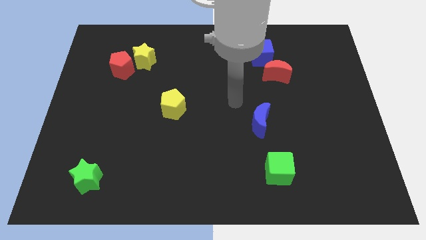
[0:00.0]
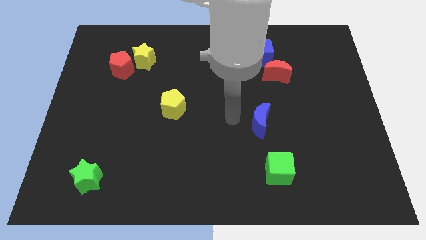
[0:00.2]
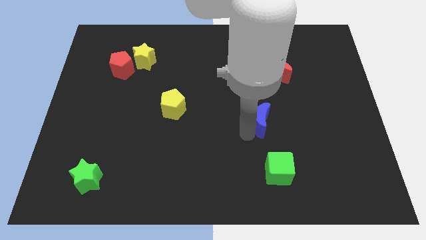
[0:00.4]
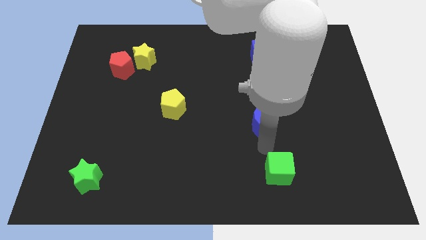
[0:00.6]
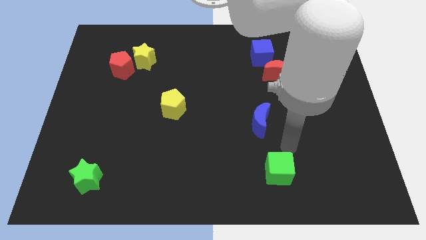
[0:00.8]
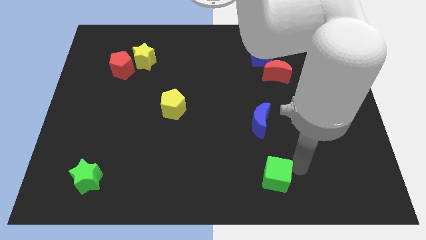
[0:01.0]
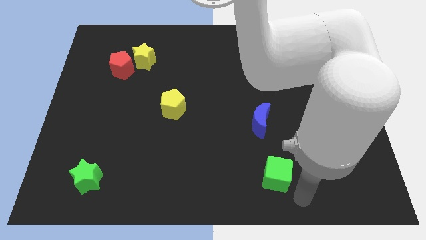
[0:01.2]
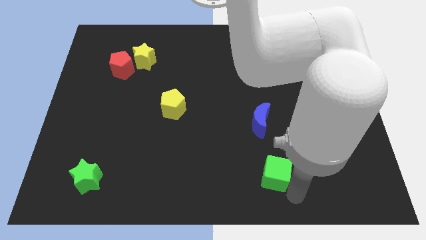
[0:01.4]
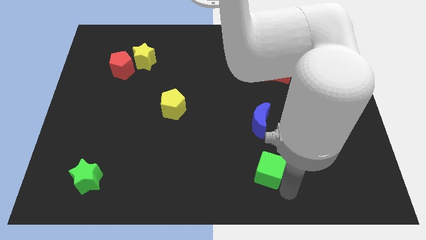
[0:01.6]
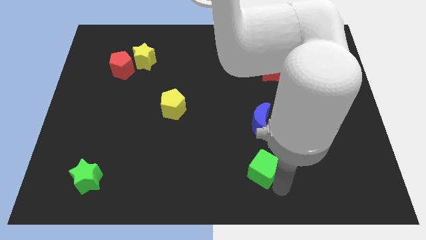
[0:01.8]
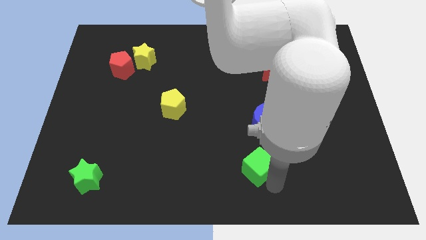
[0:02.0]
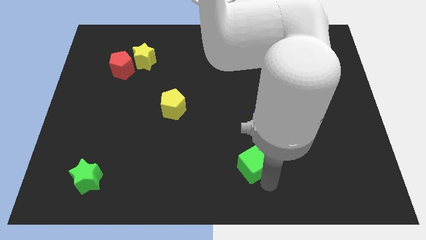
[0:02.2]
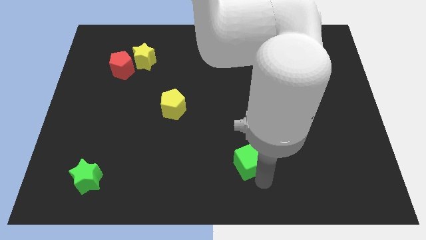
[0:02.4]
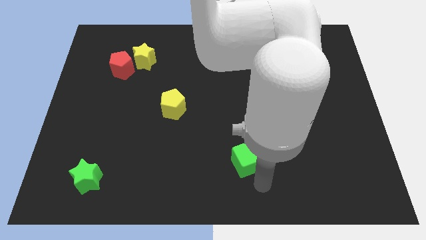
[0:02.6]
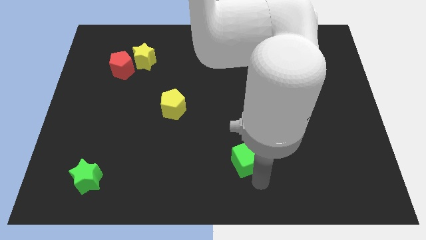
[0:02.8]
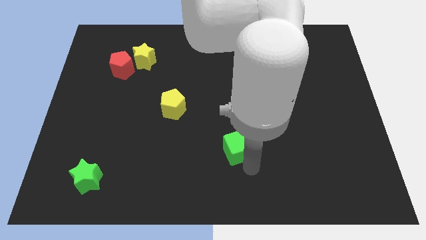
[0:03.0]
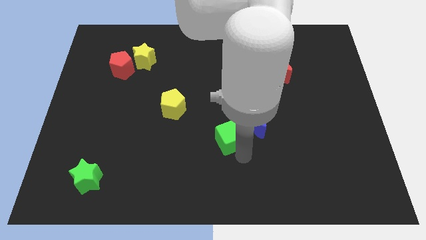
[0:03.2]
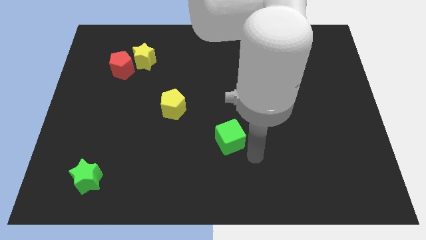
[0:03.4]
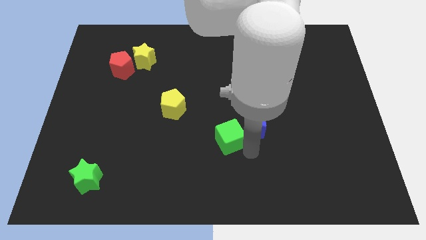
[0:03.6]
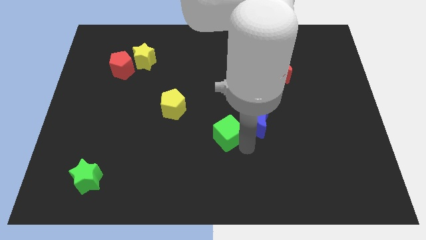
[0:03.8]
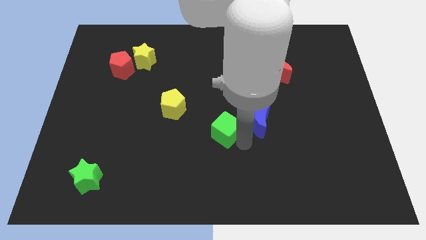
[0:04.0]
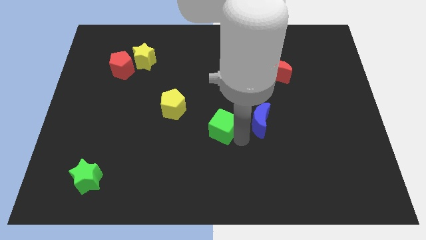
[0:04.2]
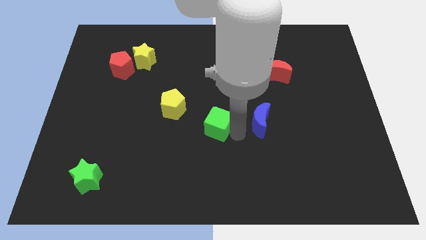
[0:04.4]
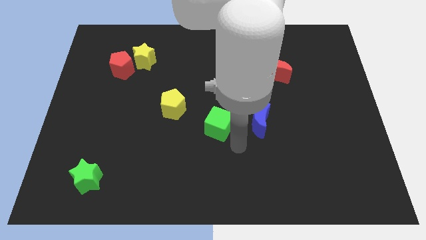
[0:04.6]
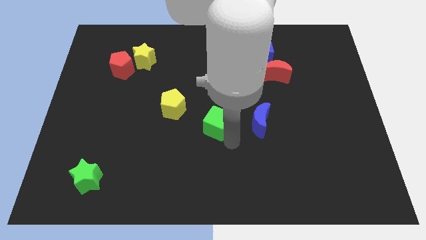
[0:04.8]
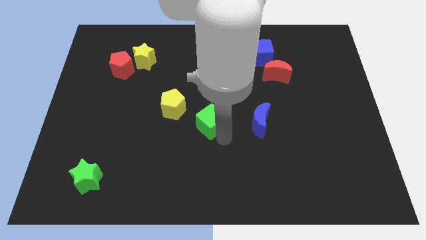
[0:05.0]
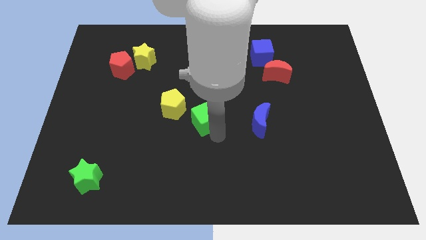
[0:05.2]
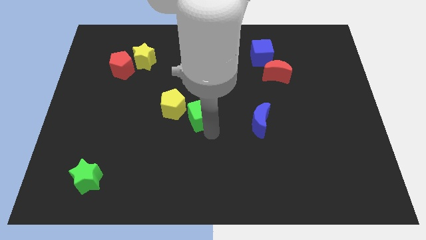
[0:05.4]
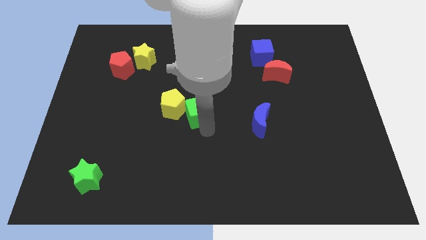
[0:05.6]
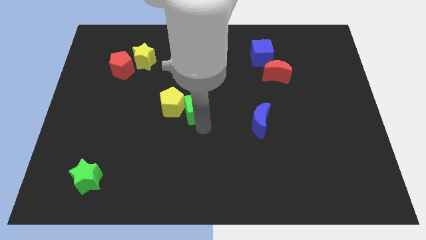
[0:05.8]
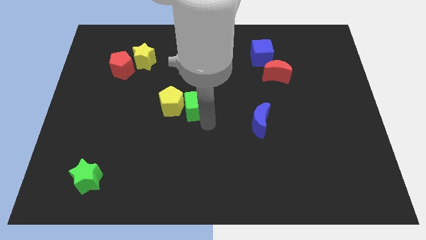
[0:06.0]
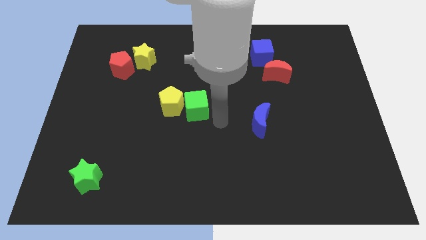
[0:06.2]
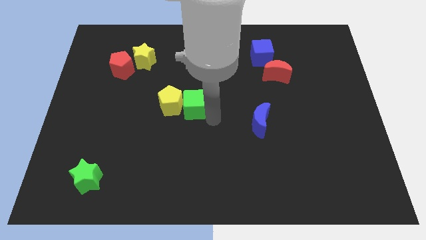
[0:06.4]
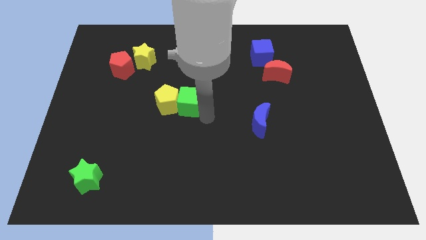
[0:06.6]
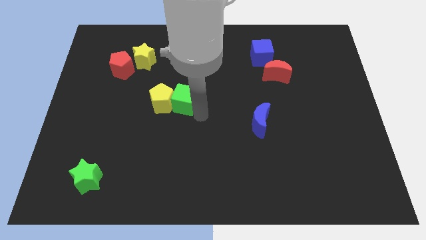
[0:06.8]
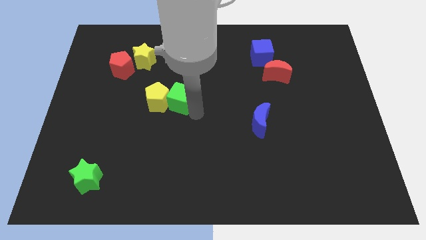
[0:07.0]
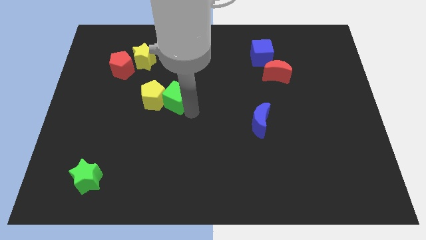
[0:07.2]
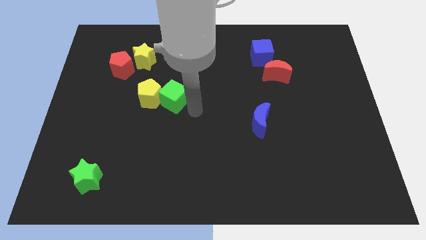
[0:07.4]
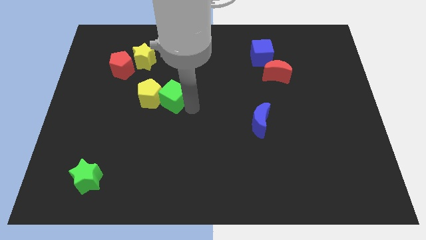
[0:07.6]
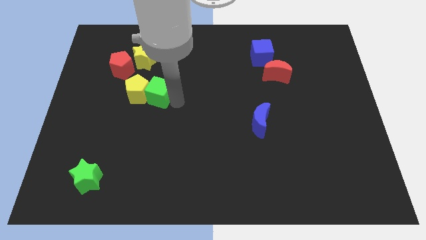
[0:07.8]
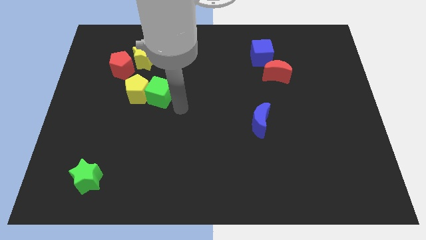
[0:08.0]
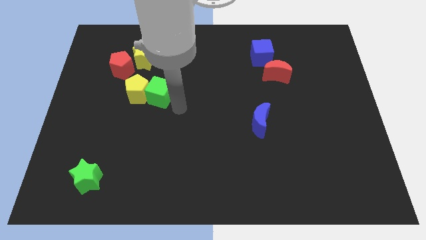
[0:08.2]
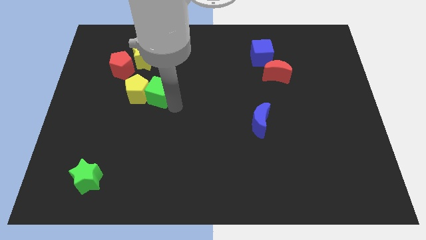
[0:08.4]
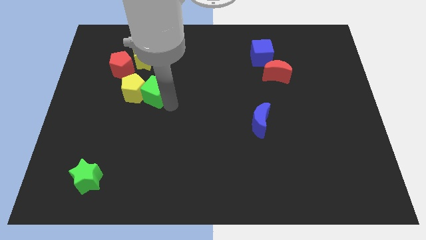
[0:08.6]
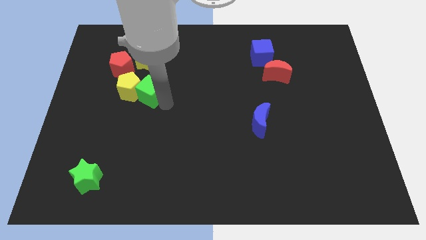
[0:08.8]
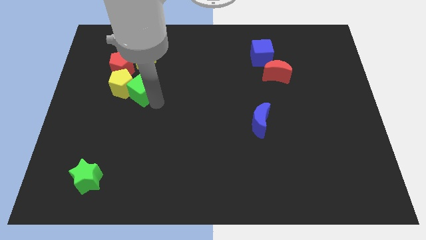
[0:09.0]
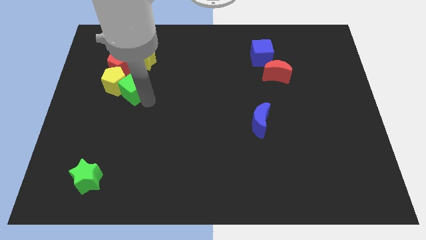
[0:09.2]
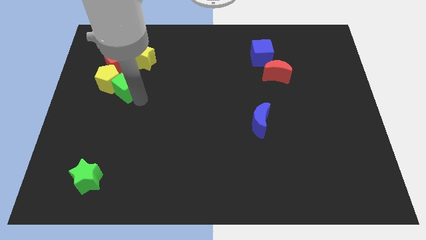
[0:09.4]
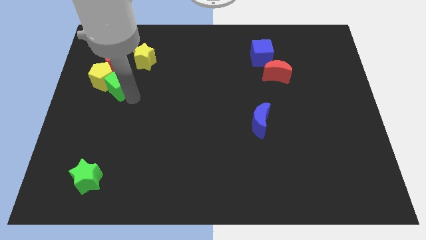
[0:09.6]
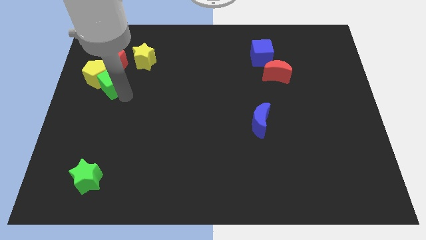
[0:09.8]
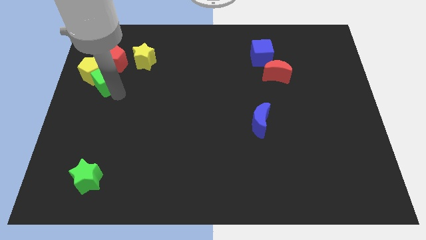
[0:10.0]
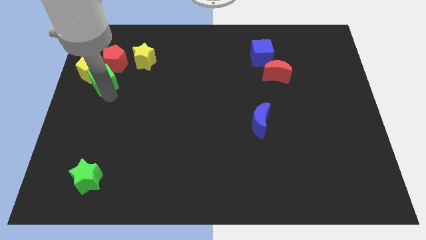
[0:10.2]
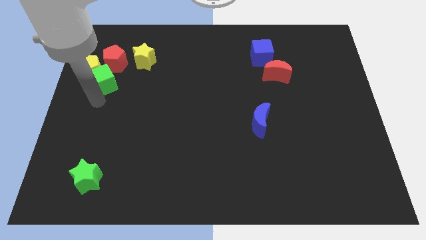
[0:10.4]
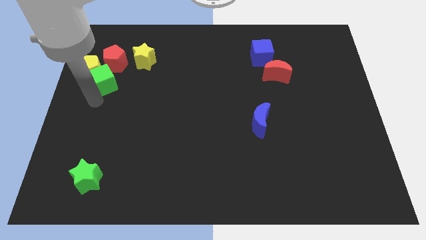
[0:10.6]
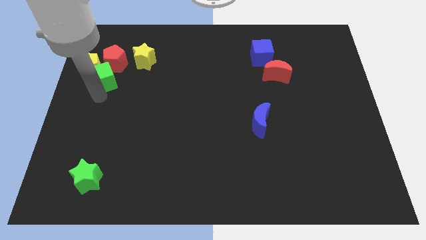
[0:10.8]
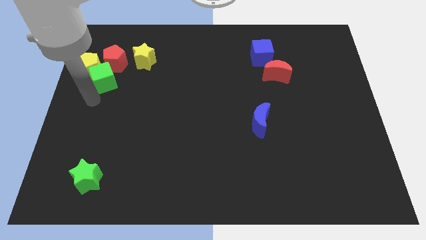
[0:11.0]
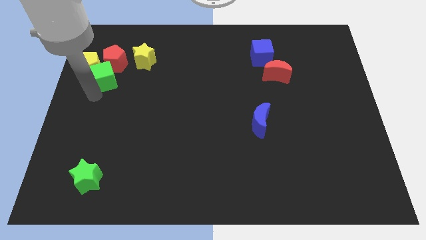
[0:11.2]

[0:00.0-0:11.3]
move the green cube towards the red pentagon
